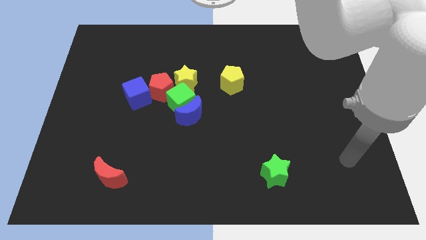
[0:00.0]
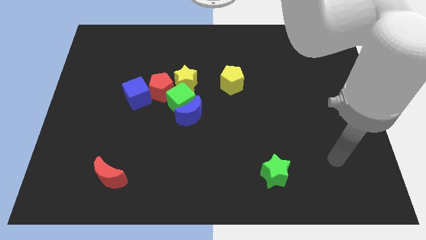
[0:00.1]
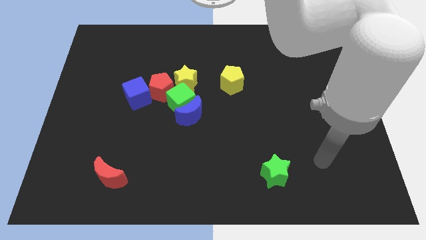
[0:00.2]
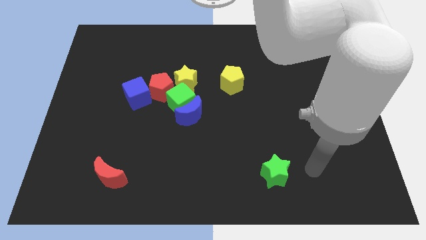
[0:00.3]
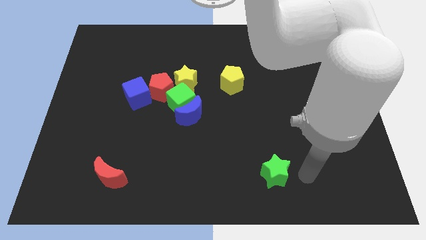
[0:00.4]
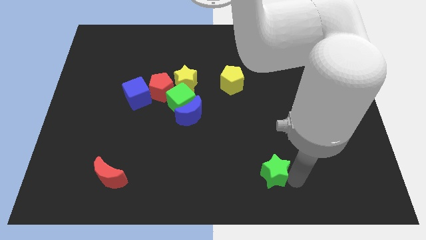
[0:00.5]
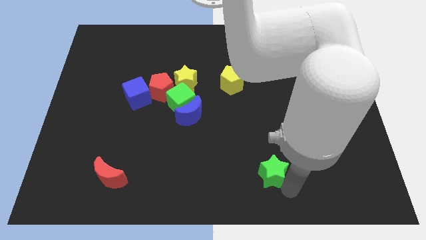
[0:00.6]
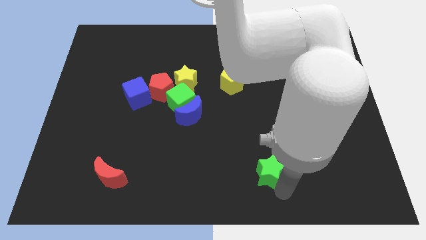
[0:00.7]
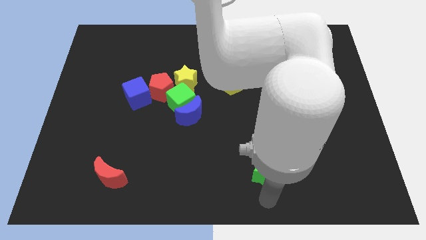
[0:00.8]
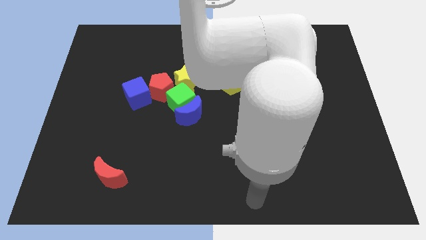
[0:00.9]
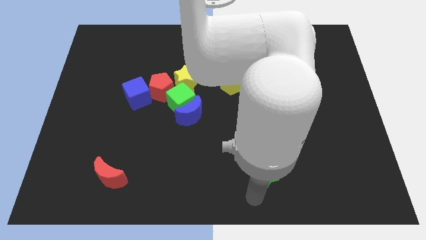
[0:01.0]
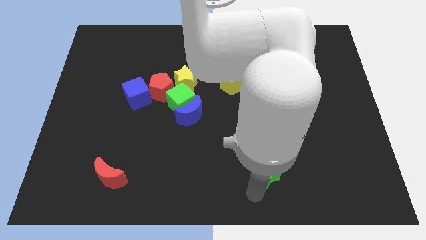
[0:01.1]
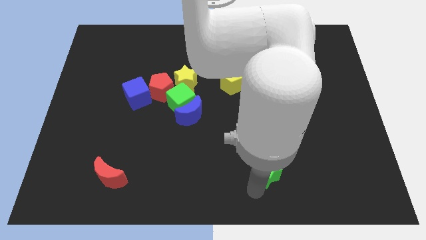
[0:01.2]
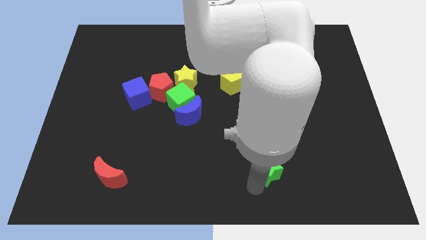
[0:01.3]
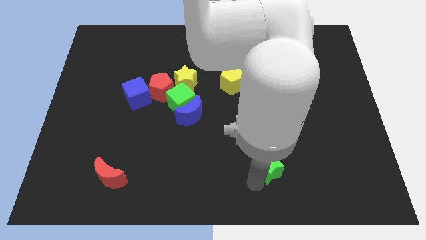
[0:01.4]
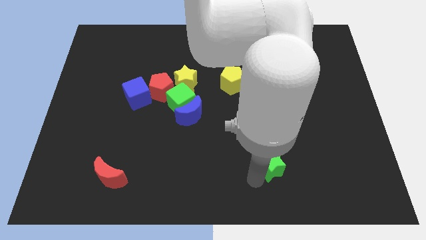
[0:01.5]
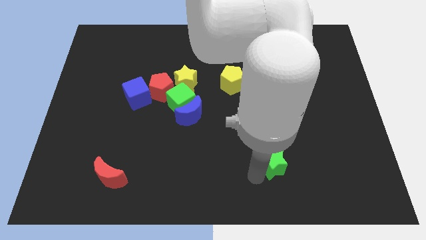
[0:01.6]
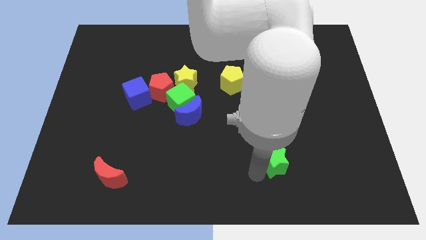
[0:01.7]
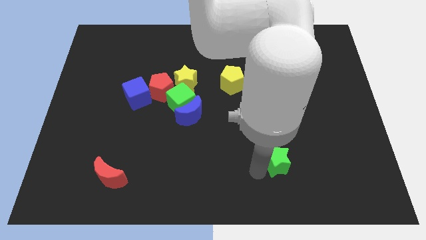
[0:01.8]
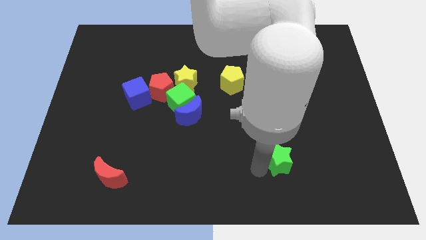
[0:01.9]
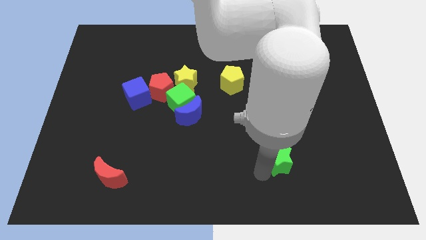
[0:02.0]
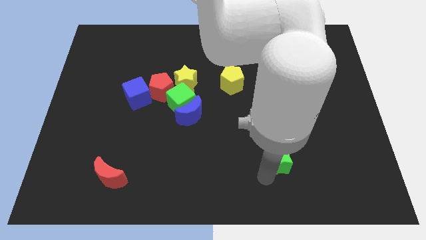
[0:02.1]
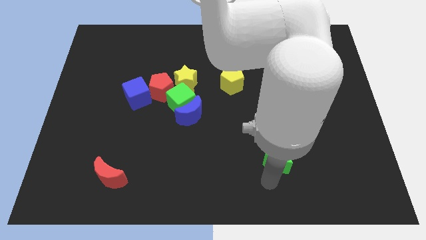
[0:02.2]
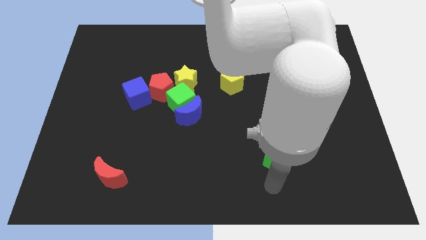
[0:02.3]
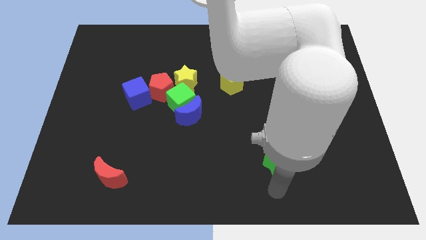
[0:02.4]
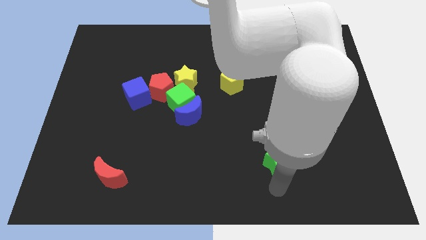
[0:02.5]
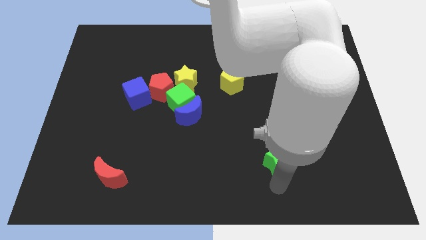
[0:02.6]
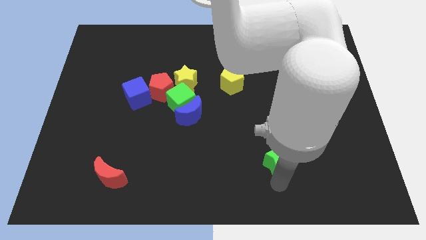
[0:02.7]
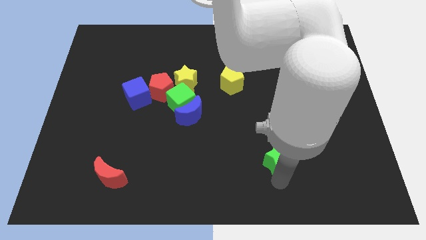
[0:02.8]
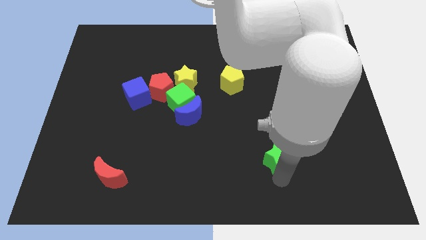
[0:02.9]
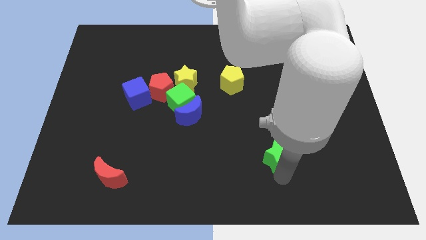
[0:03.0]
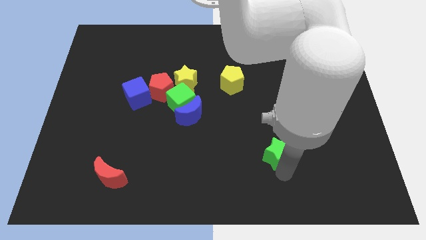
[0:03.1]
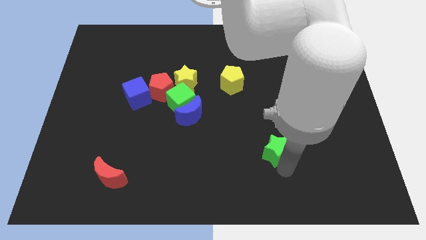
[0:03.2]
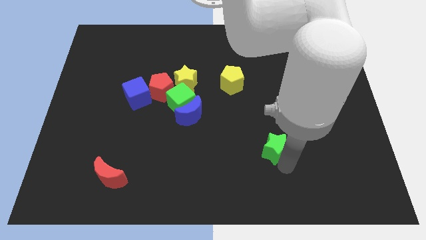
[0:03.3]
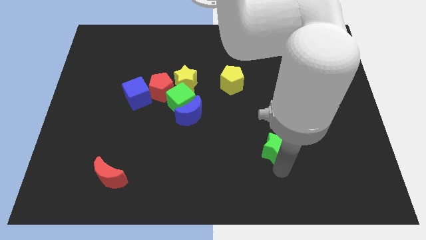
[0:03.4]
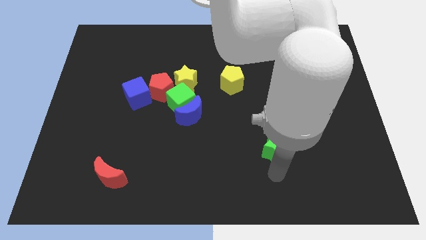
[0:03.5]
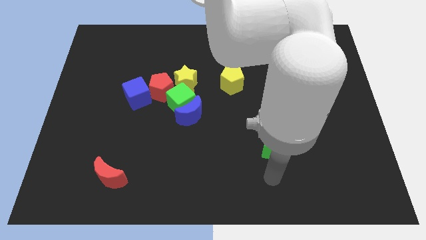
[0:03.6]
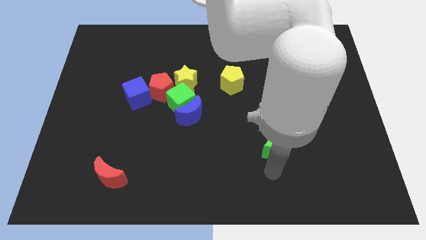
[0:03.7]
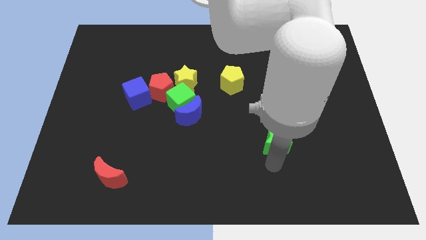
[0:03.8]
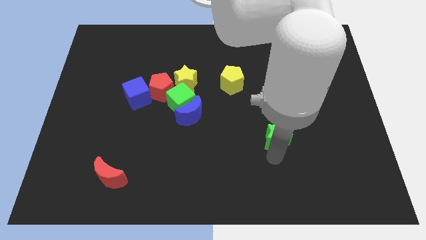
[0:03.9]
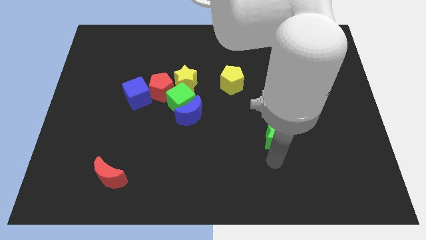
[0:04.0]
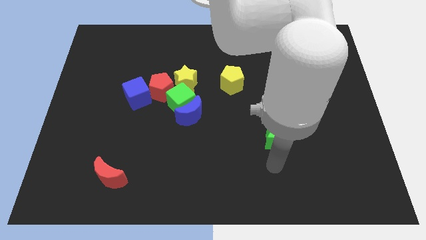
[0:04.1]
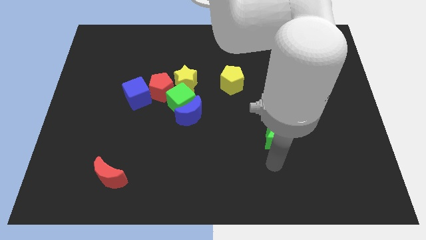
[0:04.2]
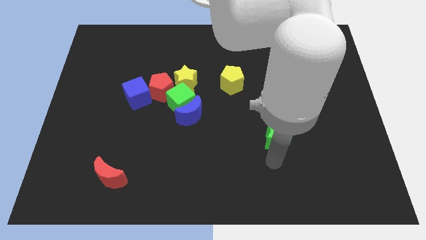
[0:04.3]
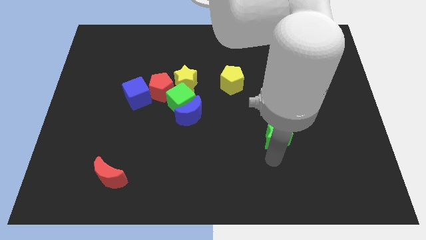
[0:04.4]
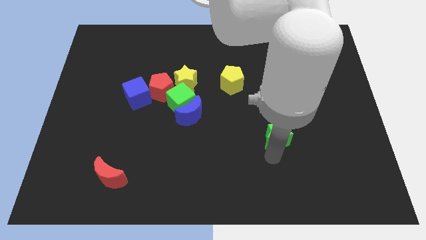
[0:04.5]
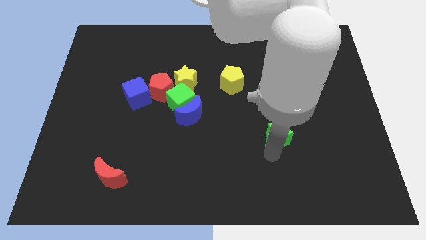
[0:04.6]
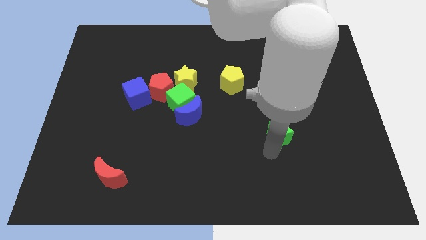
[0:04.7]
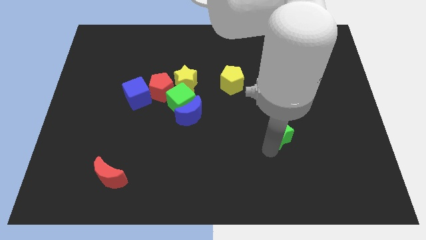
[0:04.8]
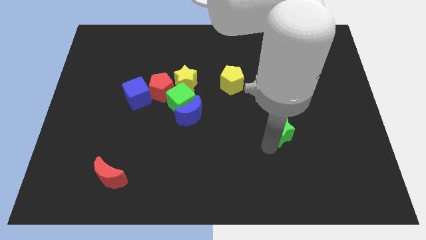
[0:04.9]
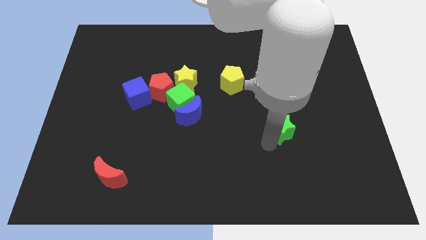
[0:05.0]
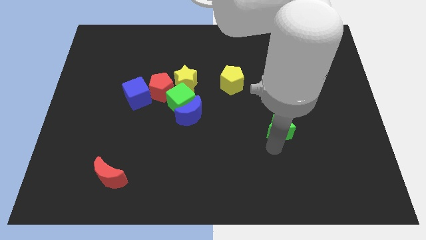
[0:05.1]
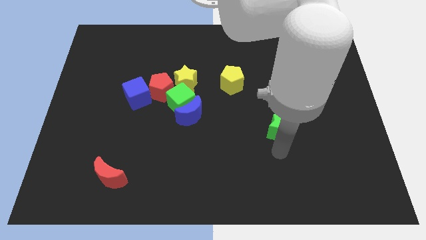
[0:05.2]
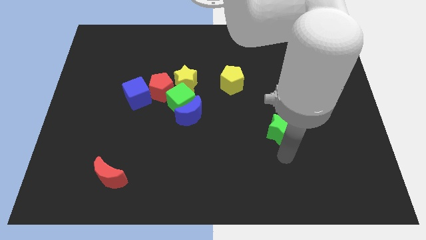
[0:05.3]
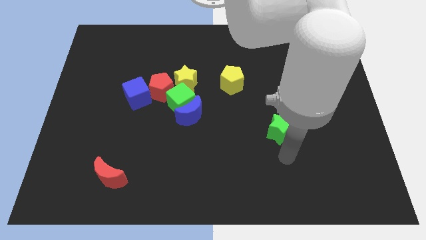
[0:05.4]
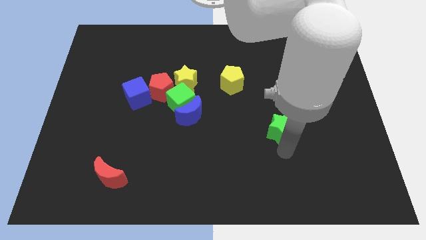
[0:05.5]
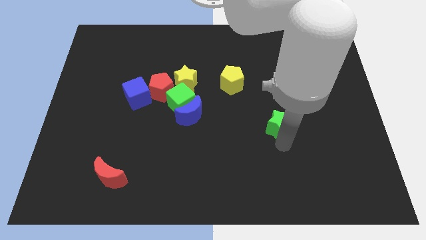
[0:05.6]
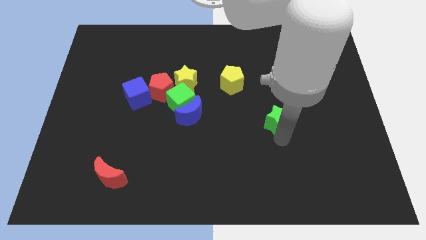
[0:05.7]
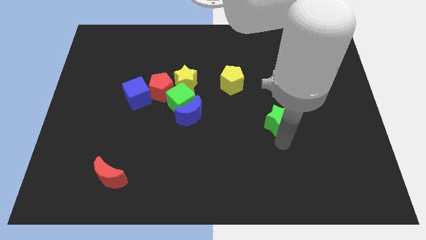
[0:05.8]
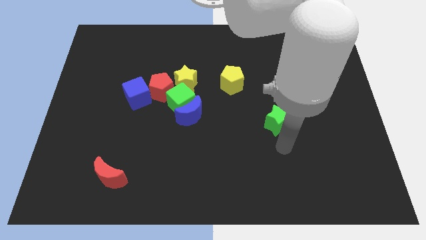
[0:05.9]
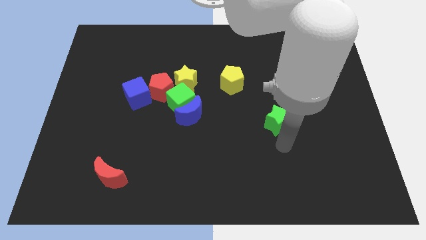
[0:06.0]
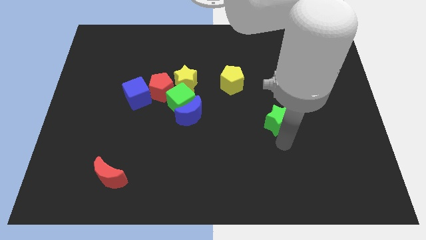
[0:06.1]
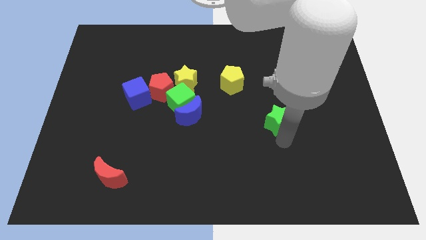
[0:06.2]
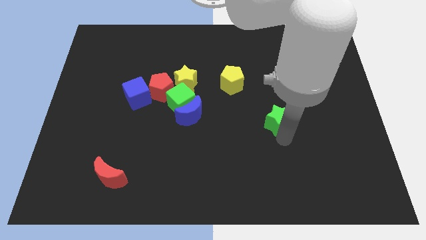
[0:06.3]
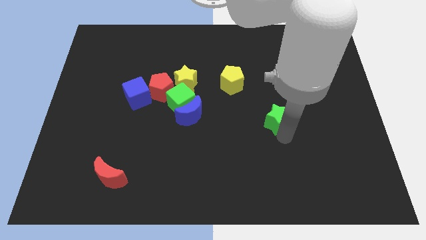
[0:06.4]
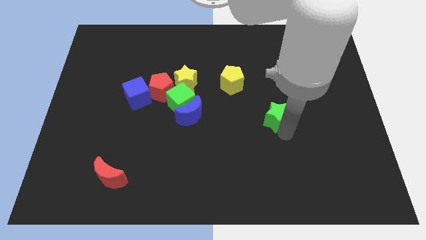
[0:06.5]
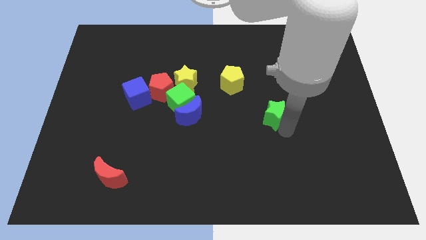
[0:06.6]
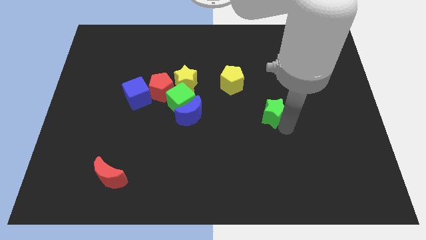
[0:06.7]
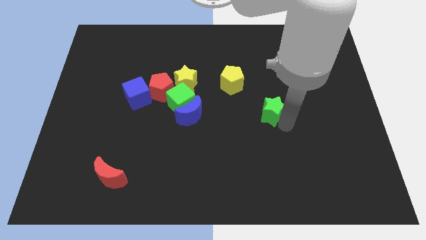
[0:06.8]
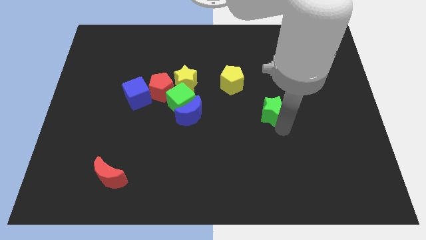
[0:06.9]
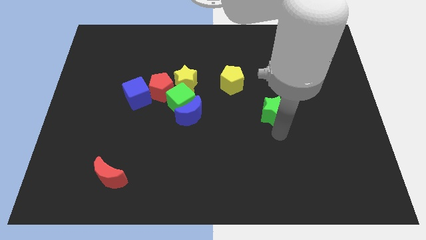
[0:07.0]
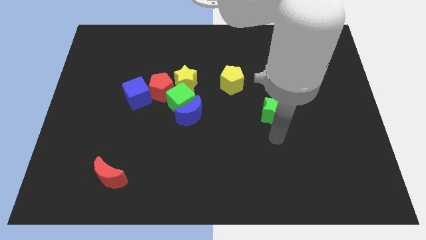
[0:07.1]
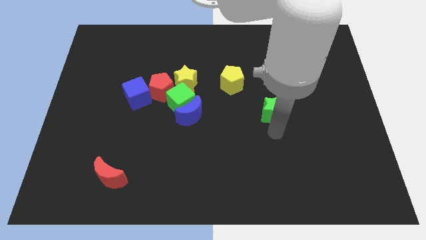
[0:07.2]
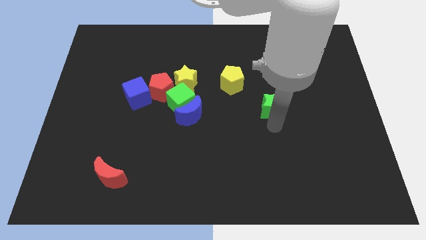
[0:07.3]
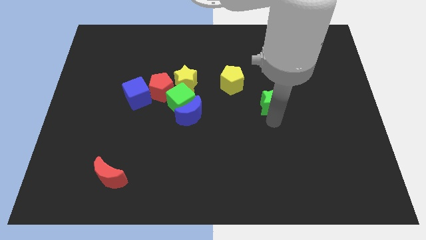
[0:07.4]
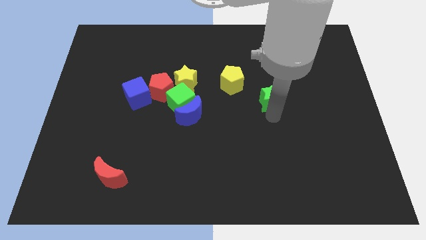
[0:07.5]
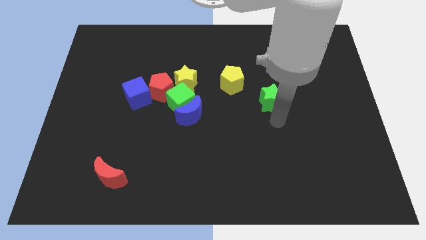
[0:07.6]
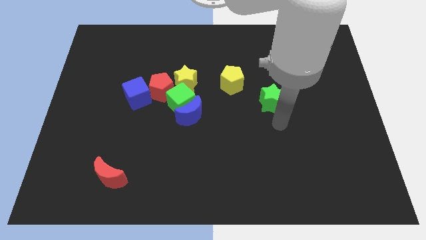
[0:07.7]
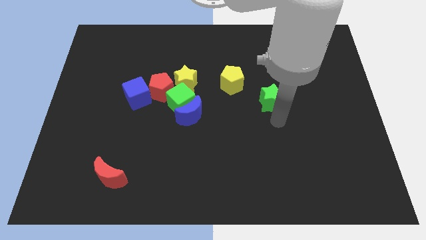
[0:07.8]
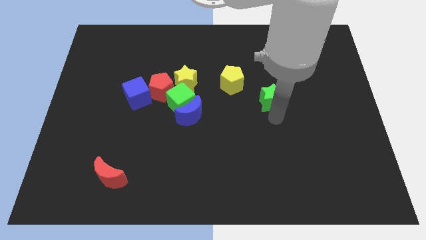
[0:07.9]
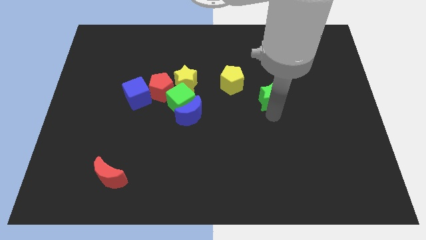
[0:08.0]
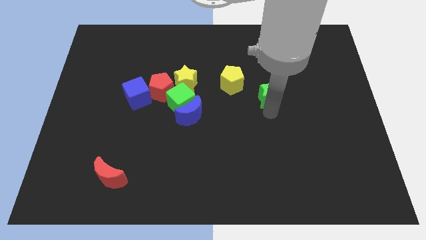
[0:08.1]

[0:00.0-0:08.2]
slide the green star up
